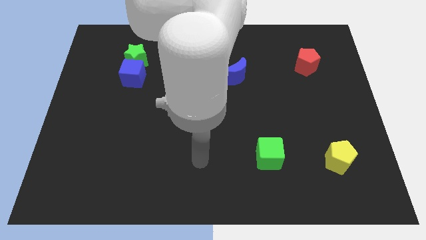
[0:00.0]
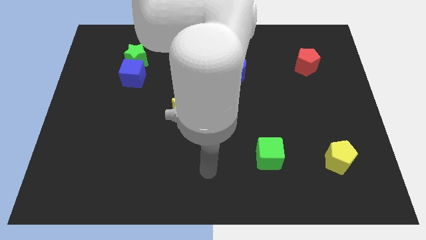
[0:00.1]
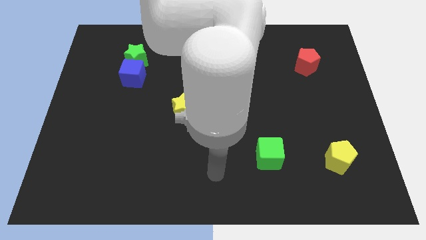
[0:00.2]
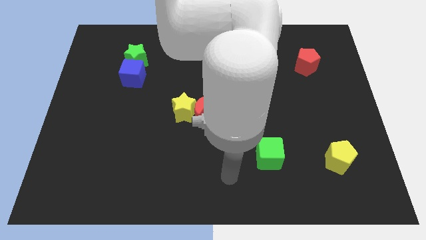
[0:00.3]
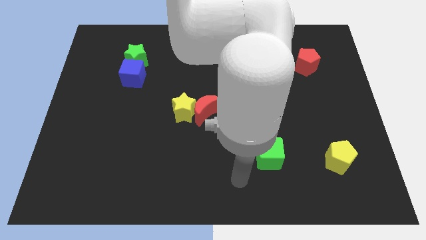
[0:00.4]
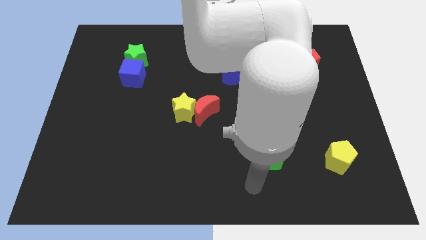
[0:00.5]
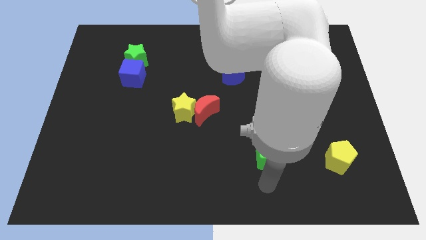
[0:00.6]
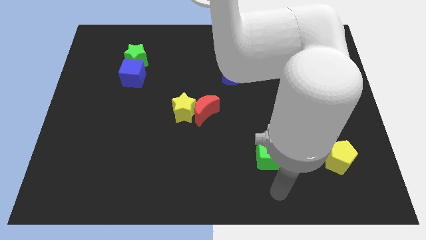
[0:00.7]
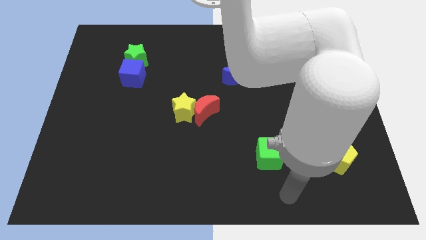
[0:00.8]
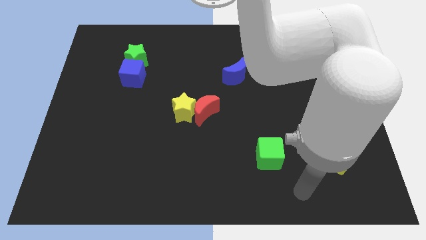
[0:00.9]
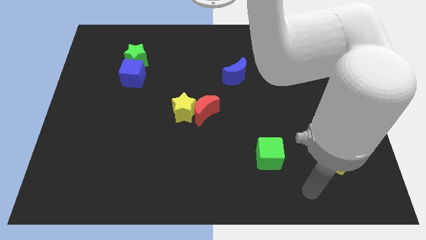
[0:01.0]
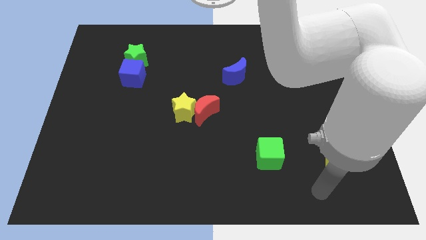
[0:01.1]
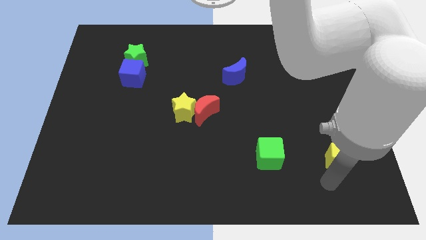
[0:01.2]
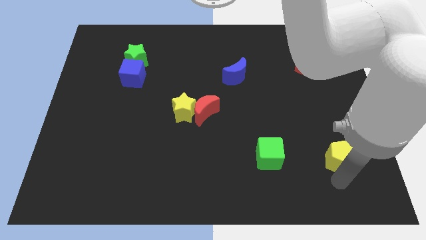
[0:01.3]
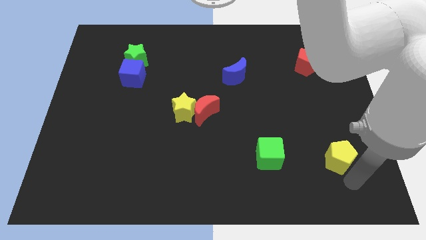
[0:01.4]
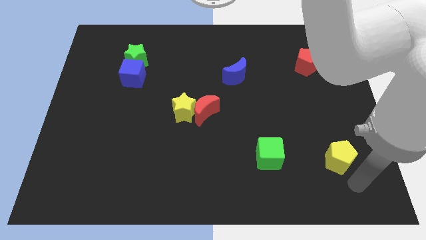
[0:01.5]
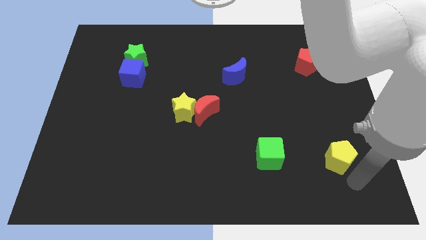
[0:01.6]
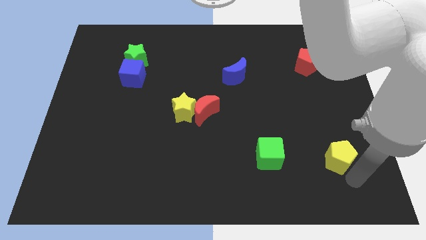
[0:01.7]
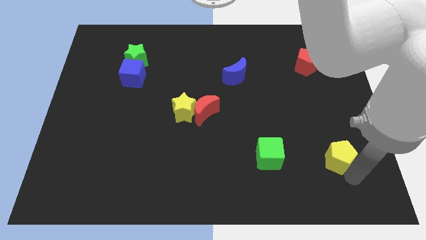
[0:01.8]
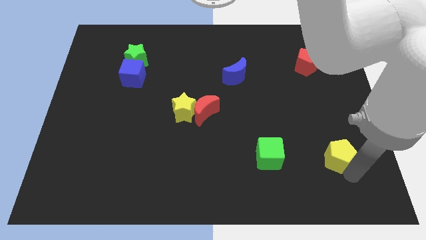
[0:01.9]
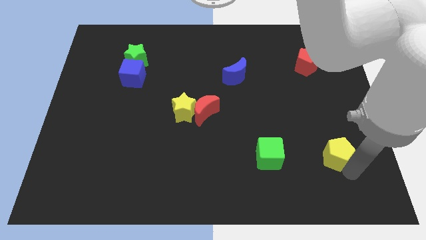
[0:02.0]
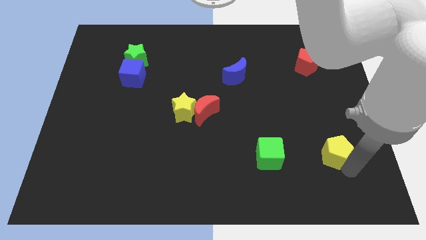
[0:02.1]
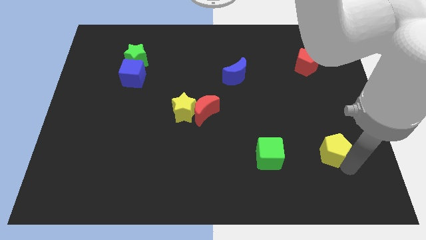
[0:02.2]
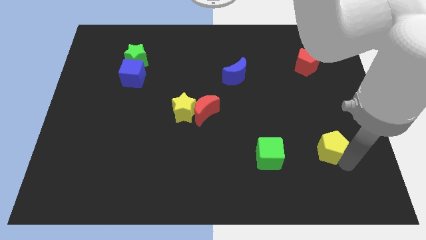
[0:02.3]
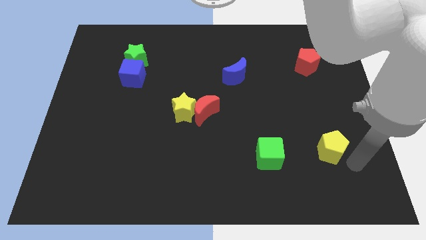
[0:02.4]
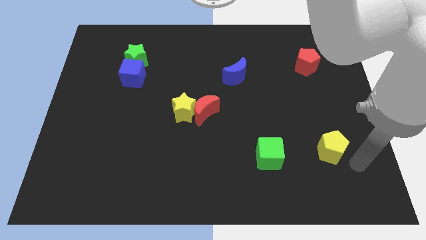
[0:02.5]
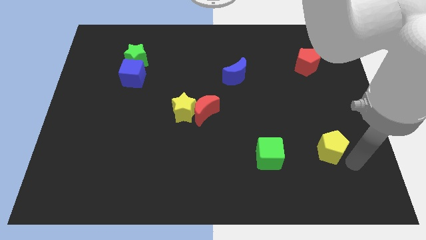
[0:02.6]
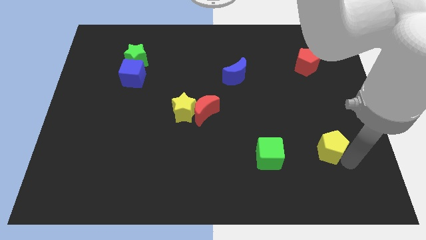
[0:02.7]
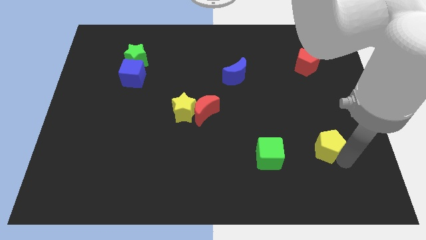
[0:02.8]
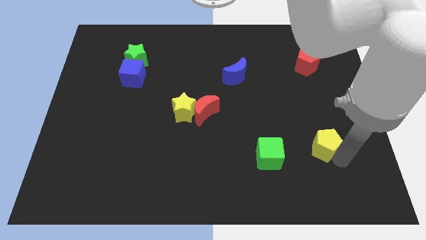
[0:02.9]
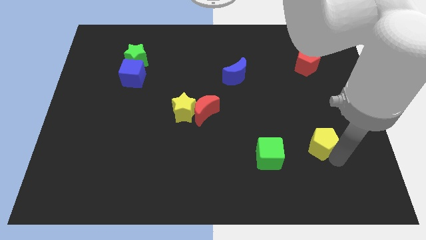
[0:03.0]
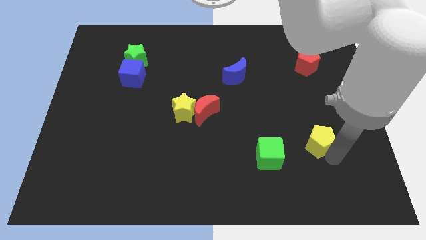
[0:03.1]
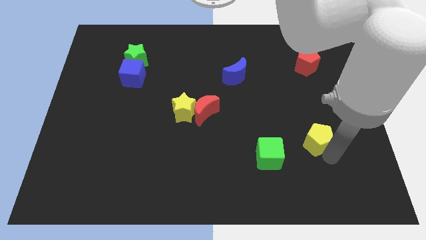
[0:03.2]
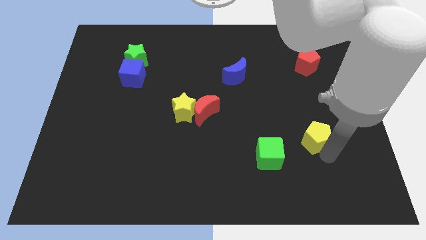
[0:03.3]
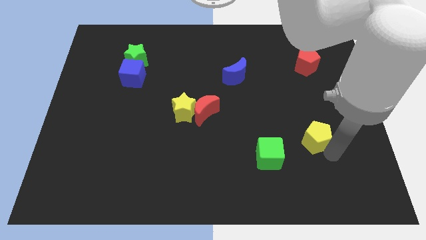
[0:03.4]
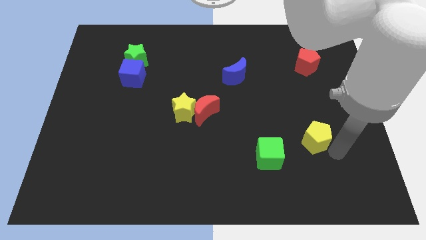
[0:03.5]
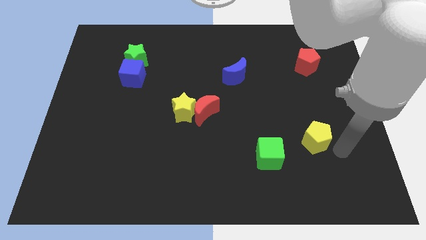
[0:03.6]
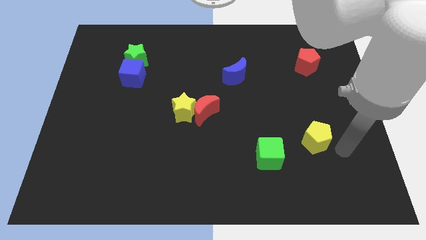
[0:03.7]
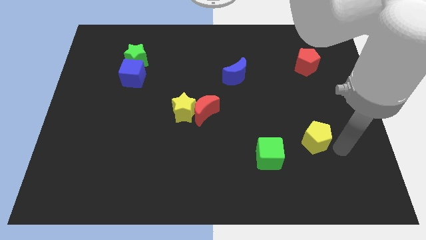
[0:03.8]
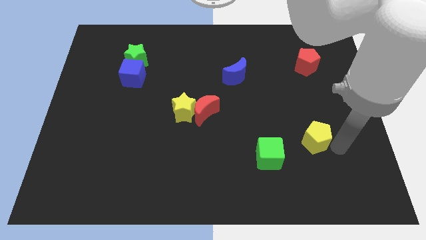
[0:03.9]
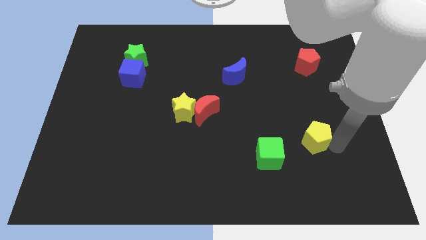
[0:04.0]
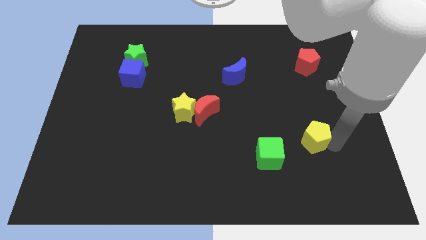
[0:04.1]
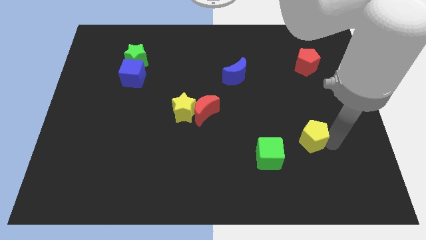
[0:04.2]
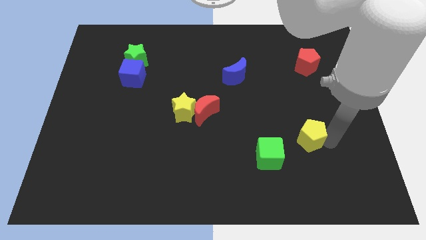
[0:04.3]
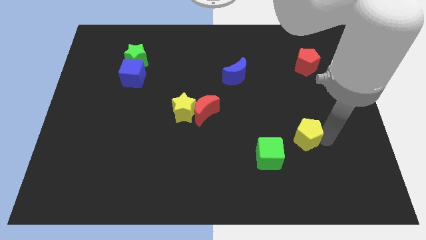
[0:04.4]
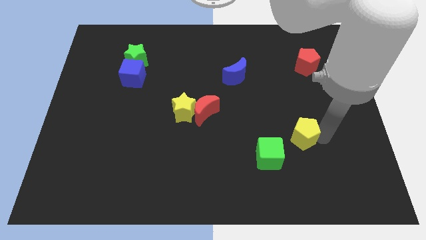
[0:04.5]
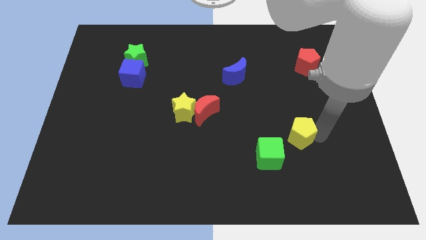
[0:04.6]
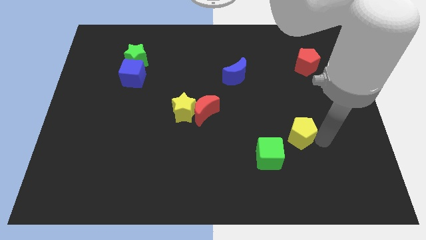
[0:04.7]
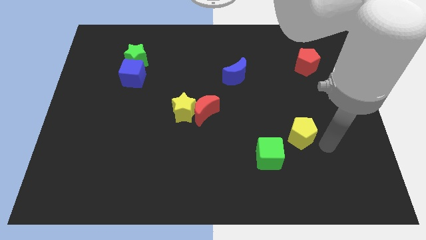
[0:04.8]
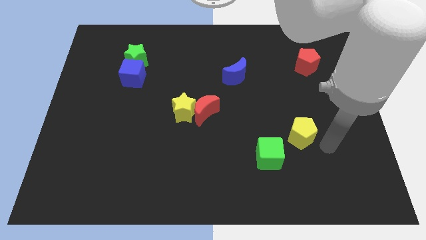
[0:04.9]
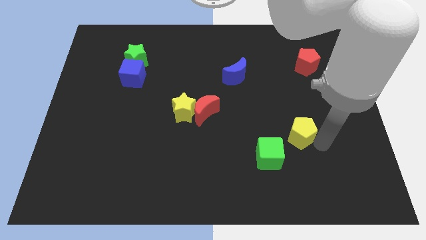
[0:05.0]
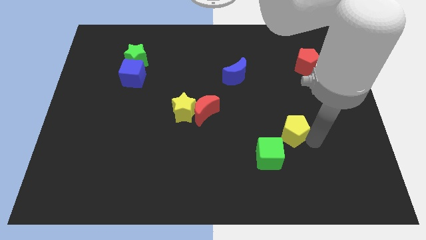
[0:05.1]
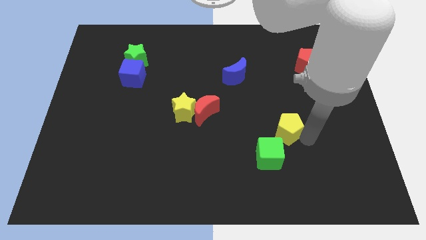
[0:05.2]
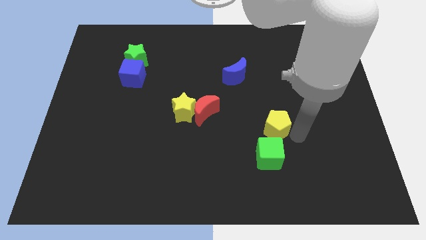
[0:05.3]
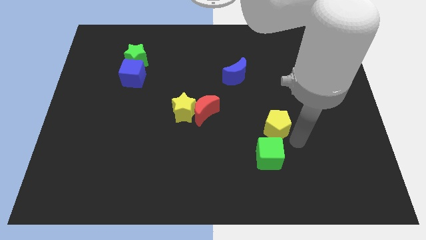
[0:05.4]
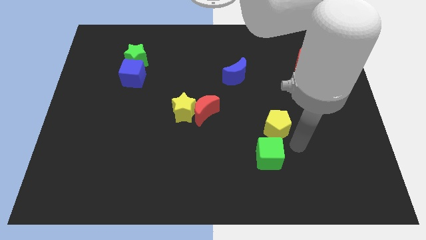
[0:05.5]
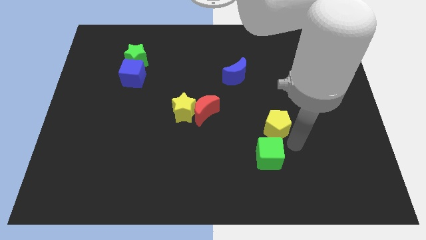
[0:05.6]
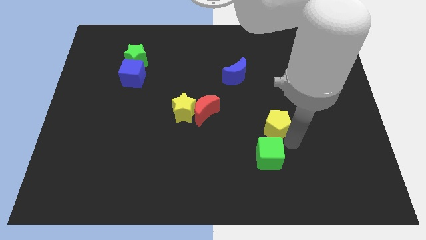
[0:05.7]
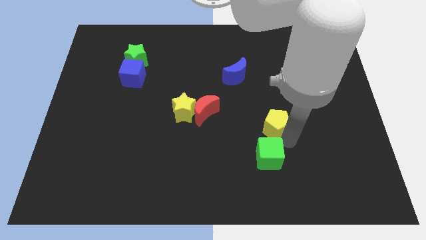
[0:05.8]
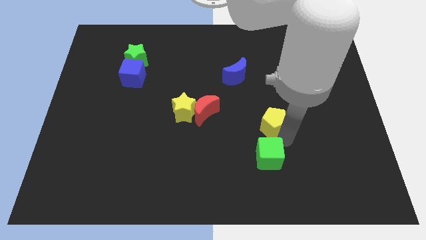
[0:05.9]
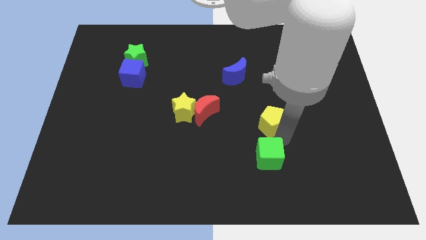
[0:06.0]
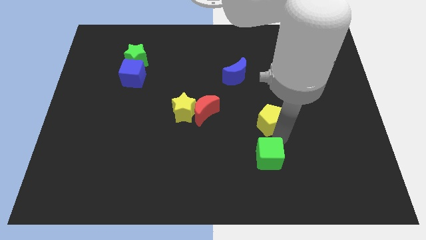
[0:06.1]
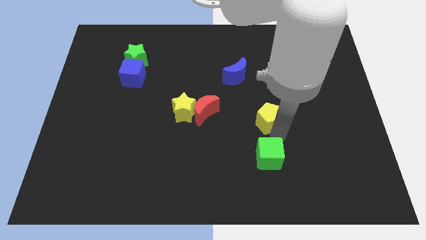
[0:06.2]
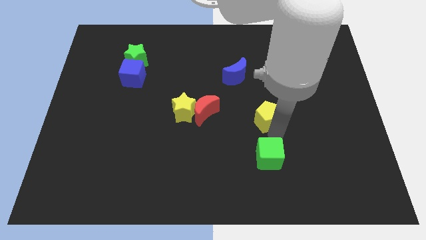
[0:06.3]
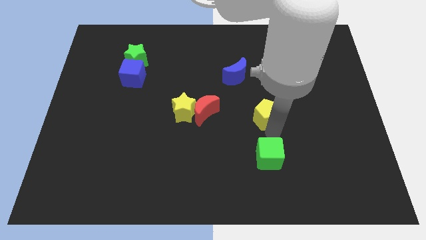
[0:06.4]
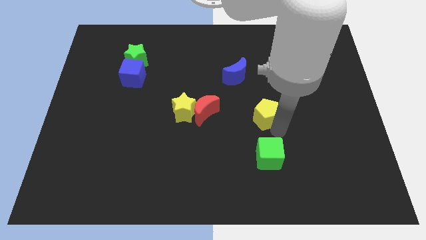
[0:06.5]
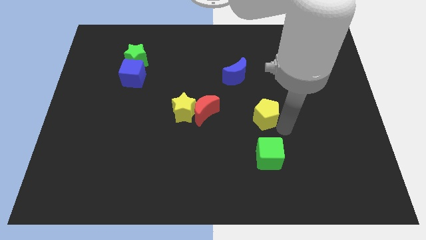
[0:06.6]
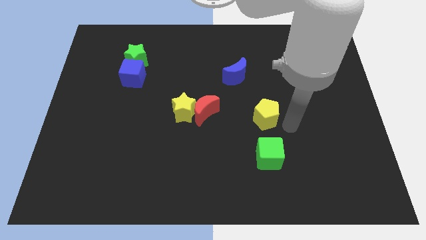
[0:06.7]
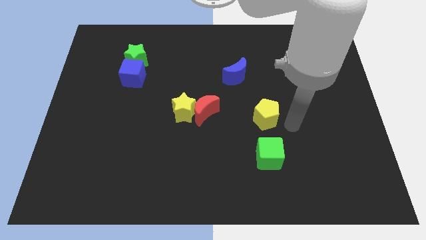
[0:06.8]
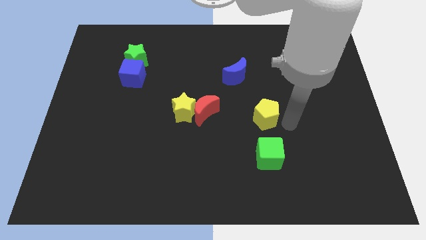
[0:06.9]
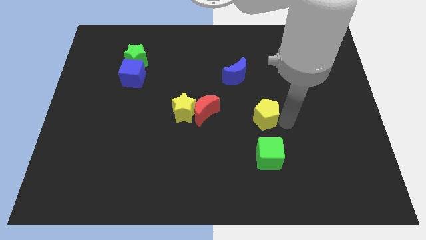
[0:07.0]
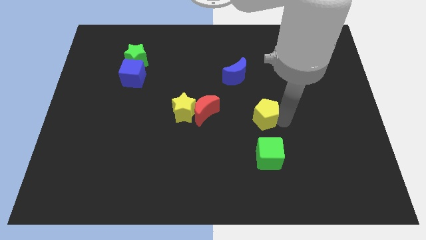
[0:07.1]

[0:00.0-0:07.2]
push the yellow pentagon to the middle
